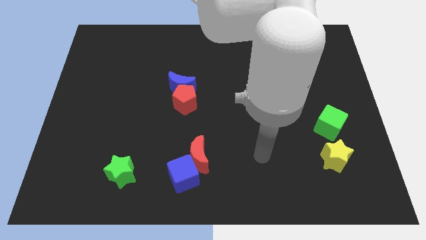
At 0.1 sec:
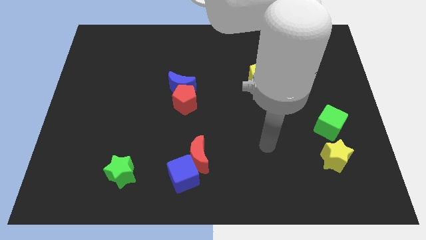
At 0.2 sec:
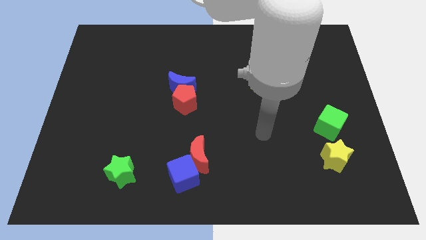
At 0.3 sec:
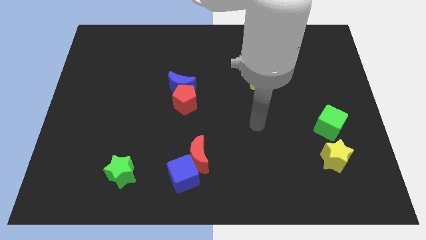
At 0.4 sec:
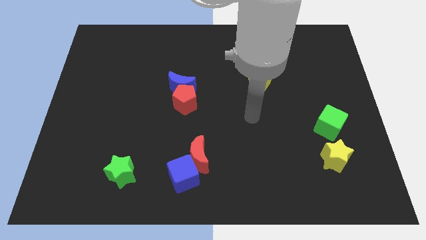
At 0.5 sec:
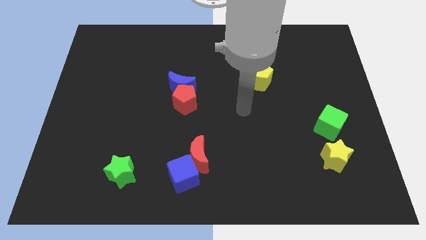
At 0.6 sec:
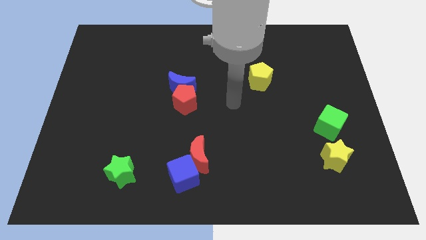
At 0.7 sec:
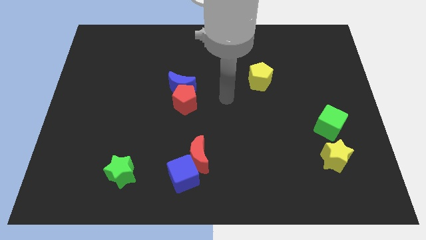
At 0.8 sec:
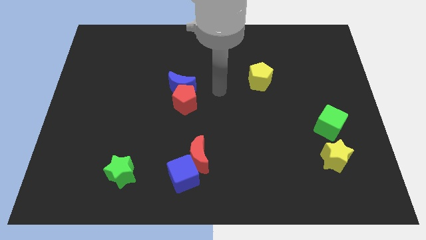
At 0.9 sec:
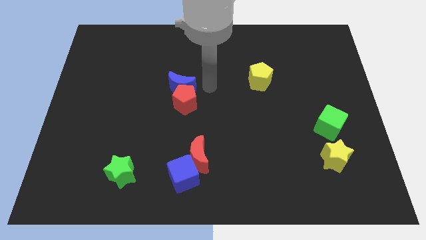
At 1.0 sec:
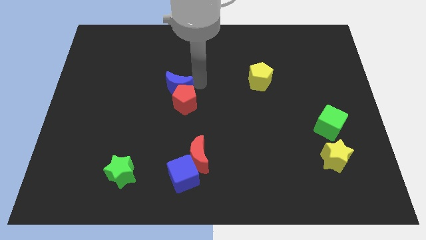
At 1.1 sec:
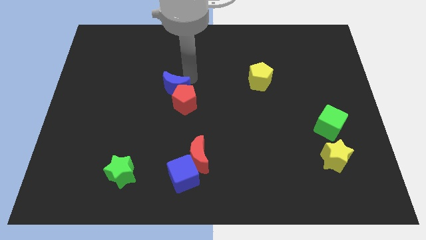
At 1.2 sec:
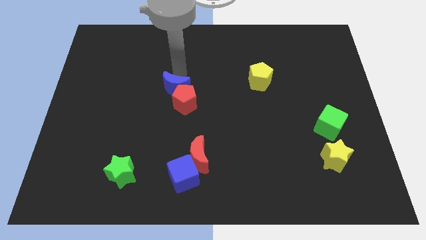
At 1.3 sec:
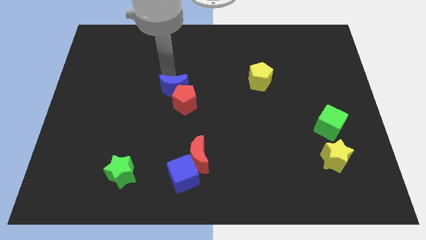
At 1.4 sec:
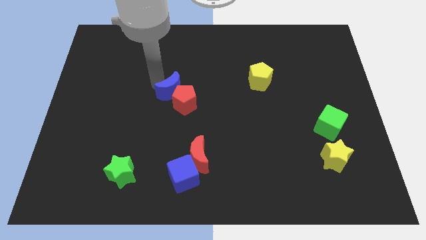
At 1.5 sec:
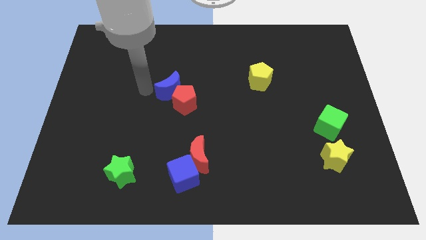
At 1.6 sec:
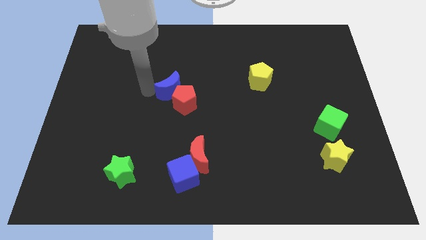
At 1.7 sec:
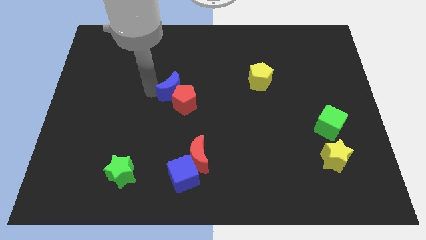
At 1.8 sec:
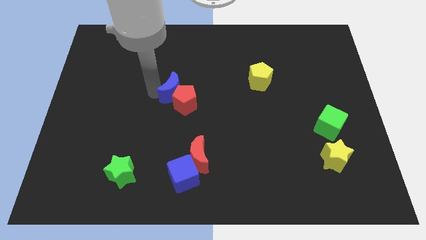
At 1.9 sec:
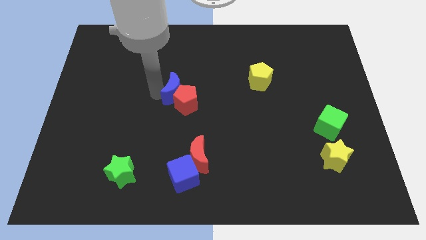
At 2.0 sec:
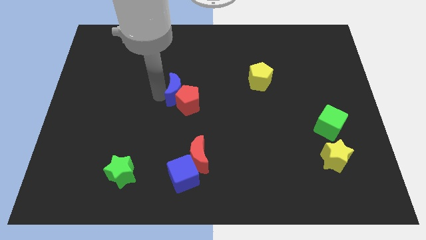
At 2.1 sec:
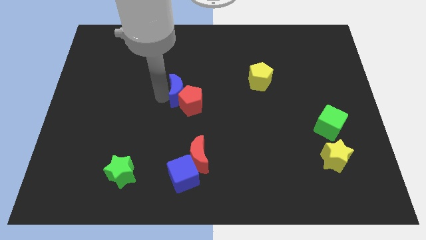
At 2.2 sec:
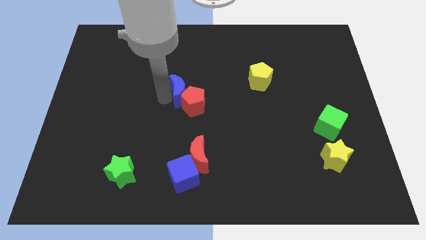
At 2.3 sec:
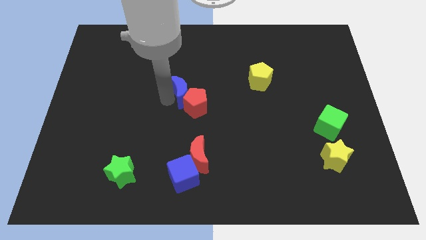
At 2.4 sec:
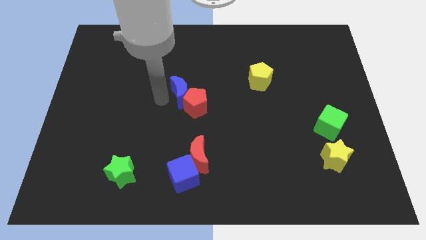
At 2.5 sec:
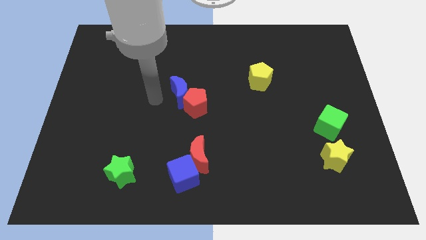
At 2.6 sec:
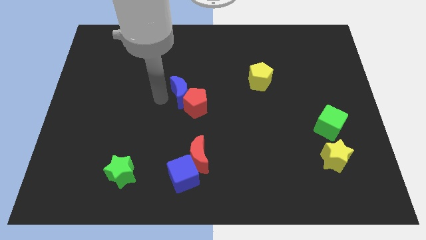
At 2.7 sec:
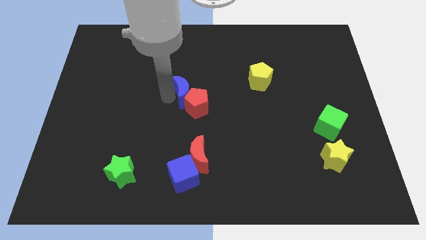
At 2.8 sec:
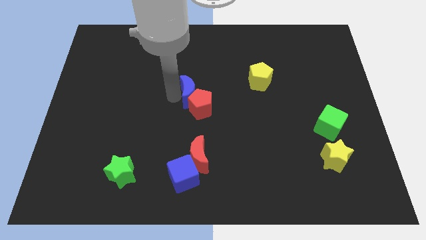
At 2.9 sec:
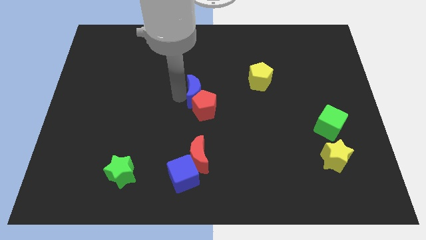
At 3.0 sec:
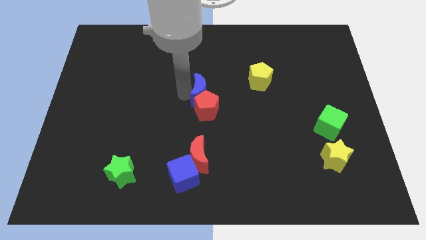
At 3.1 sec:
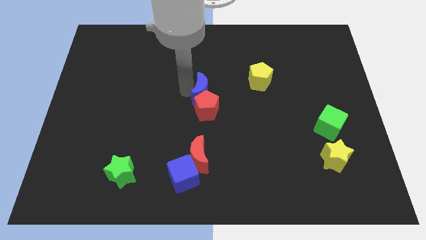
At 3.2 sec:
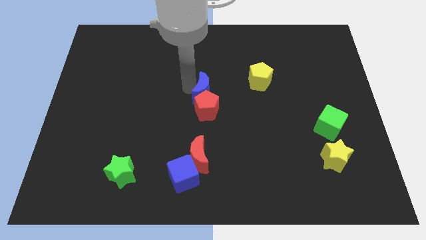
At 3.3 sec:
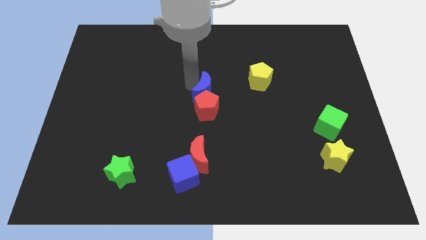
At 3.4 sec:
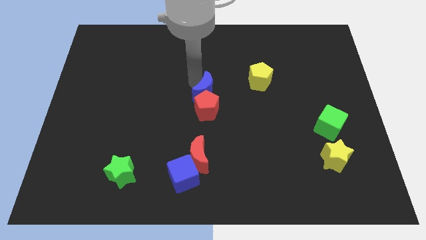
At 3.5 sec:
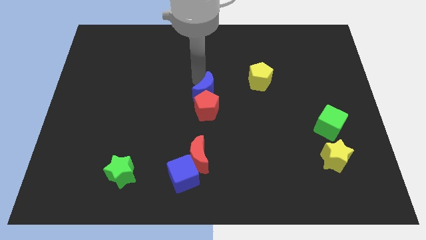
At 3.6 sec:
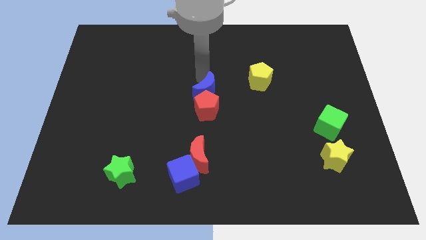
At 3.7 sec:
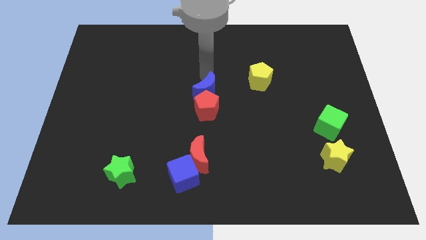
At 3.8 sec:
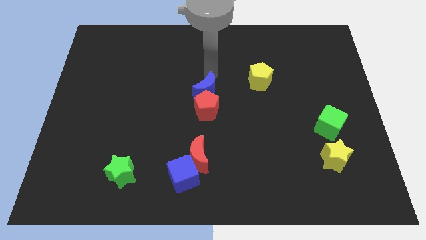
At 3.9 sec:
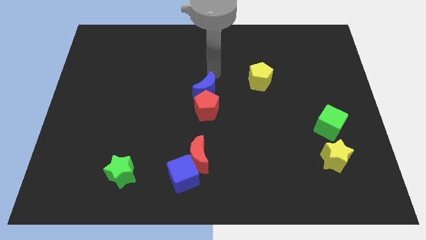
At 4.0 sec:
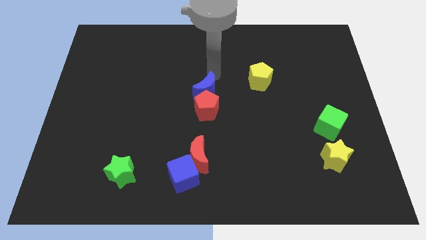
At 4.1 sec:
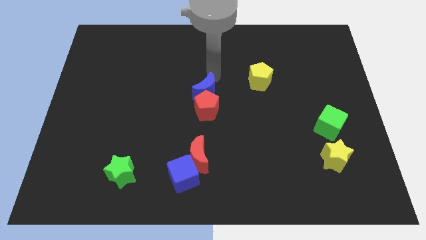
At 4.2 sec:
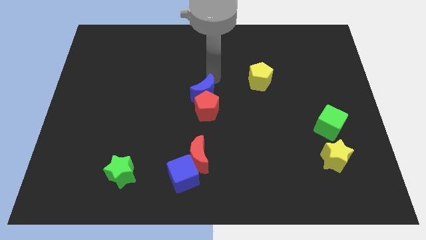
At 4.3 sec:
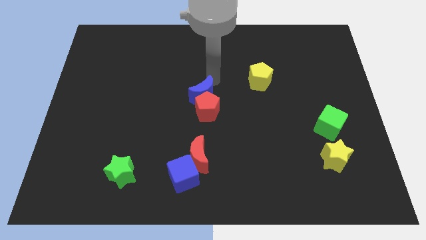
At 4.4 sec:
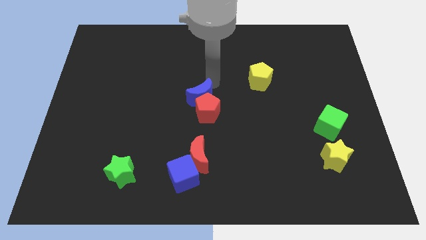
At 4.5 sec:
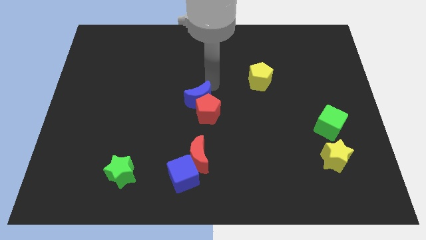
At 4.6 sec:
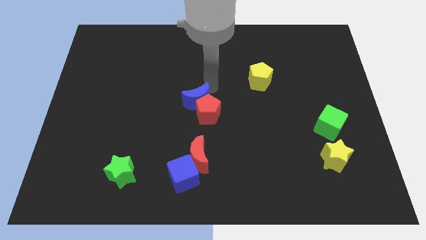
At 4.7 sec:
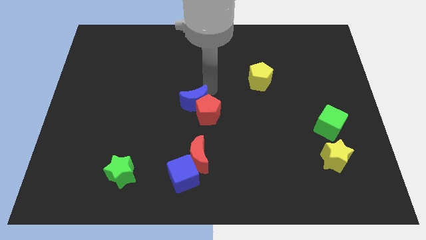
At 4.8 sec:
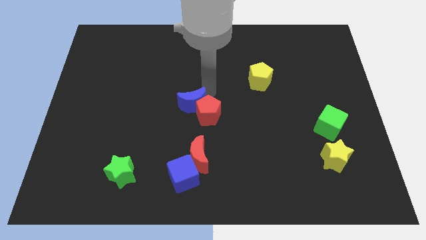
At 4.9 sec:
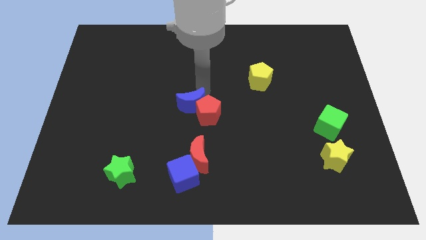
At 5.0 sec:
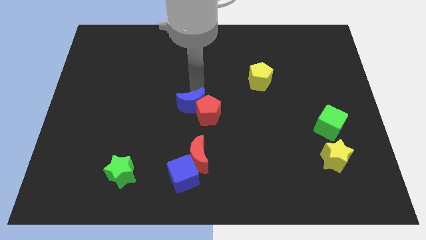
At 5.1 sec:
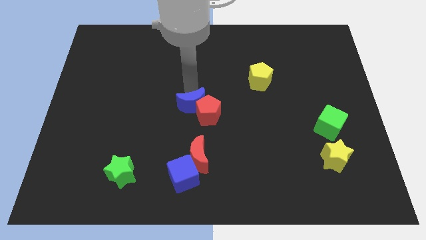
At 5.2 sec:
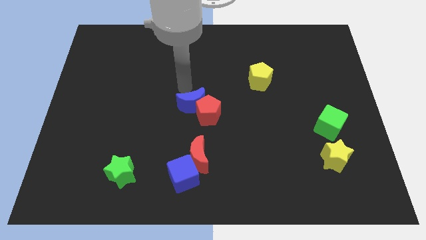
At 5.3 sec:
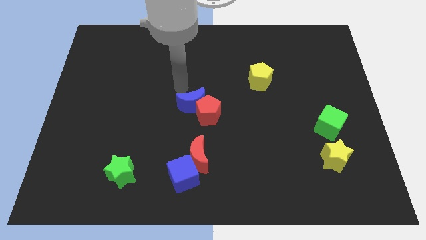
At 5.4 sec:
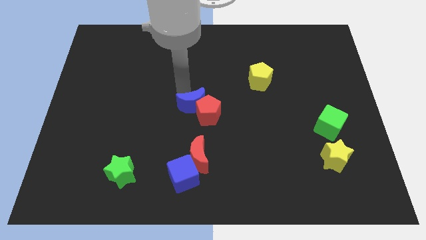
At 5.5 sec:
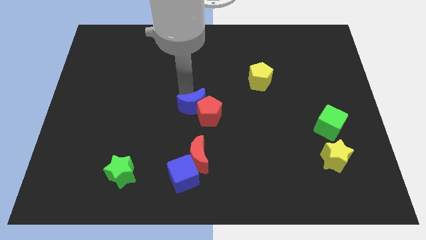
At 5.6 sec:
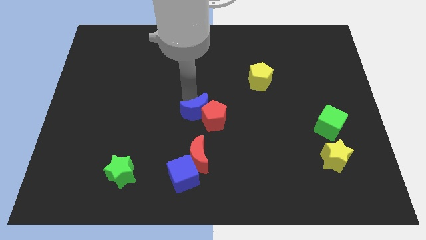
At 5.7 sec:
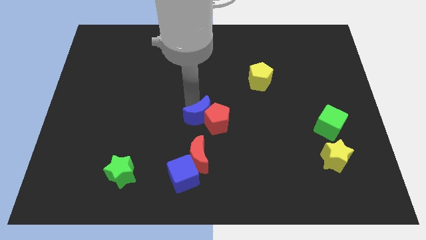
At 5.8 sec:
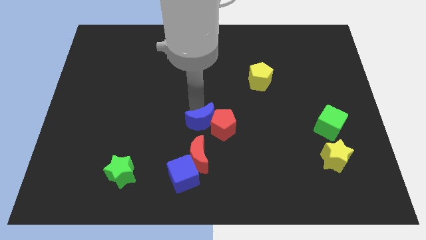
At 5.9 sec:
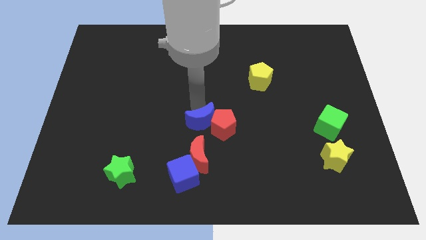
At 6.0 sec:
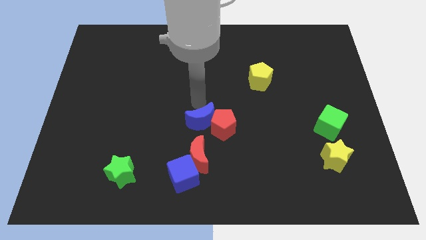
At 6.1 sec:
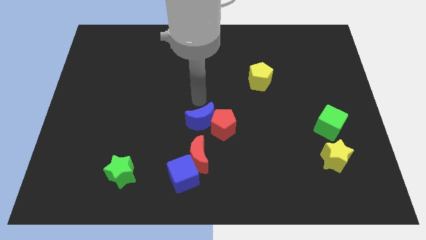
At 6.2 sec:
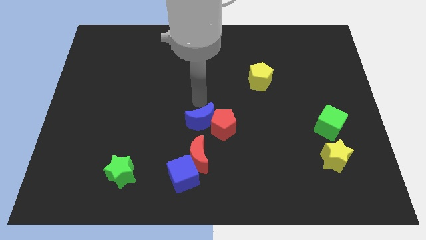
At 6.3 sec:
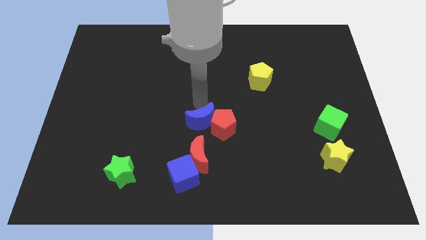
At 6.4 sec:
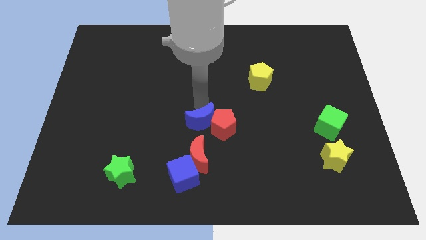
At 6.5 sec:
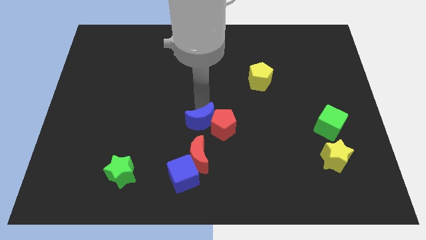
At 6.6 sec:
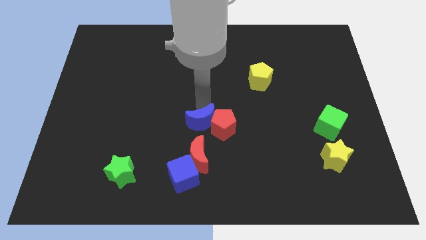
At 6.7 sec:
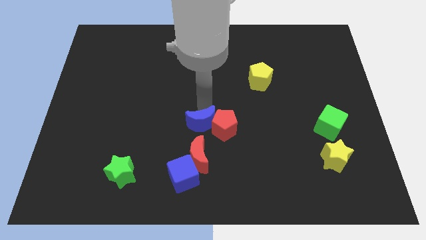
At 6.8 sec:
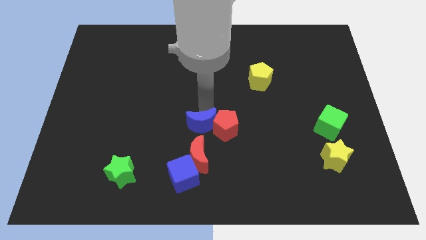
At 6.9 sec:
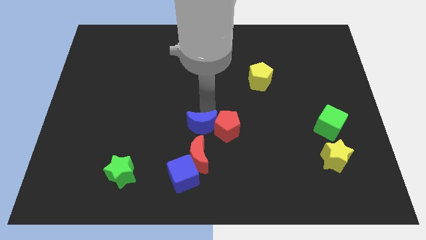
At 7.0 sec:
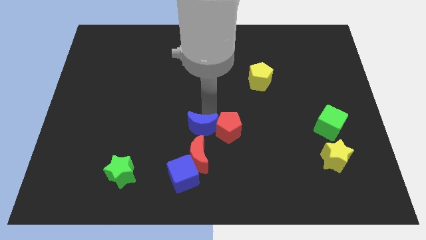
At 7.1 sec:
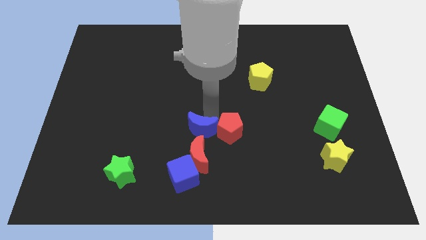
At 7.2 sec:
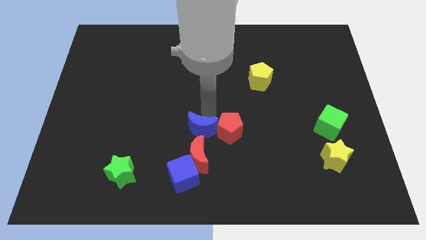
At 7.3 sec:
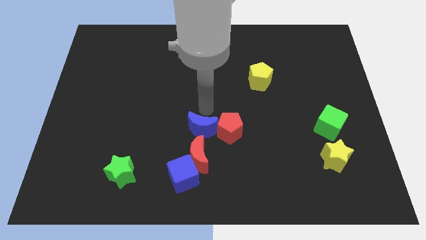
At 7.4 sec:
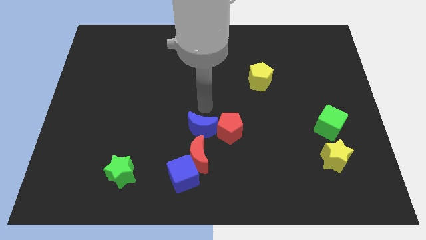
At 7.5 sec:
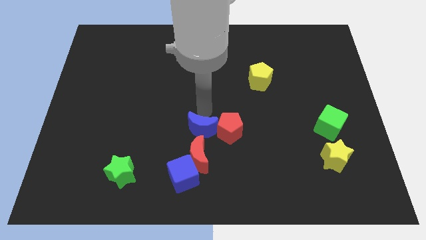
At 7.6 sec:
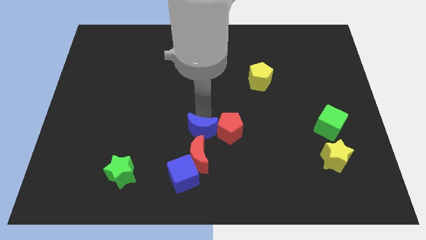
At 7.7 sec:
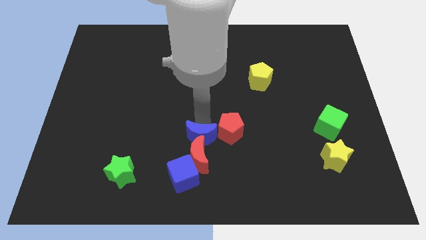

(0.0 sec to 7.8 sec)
push the blue moon to the red moon

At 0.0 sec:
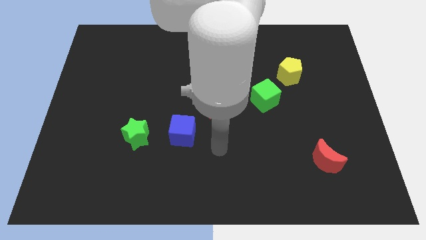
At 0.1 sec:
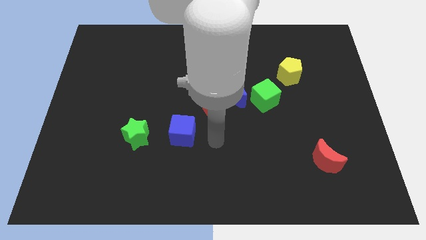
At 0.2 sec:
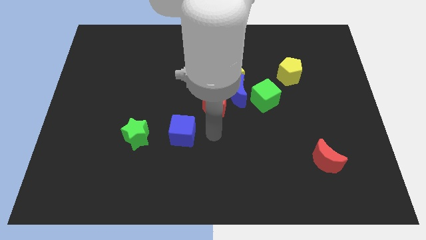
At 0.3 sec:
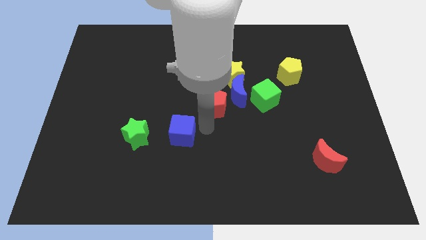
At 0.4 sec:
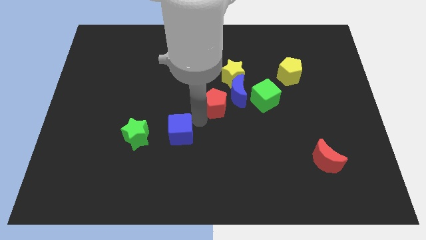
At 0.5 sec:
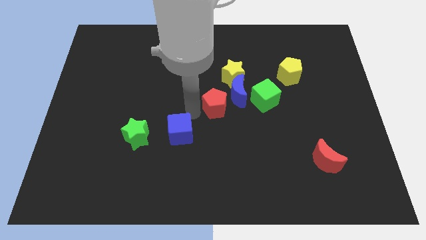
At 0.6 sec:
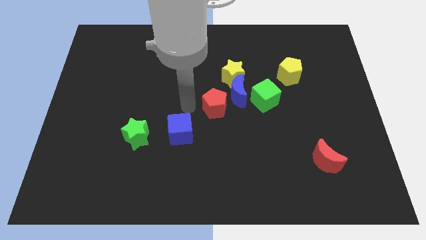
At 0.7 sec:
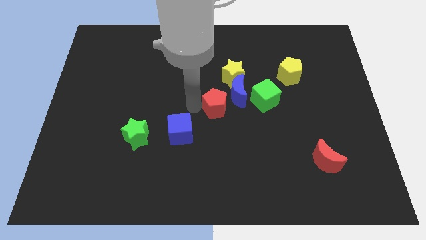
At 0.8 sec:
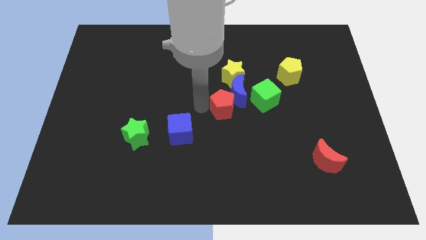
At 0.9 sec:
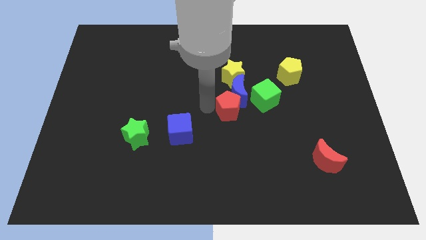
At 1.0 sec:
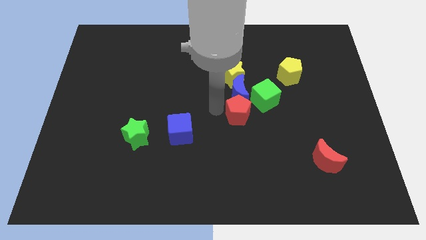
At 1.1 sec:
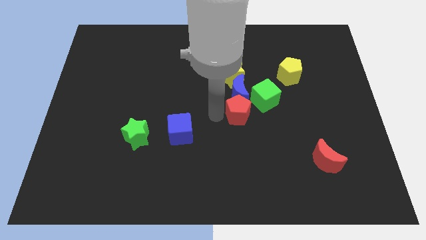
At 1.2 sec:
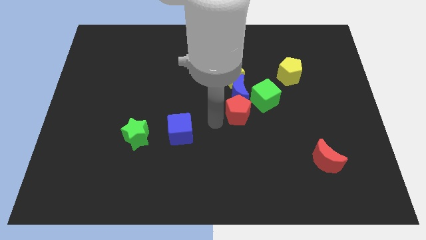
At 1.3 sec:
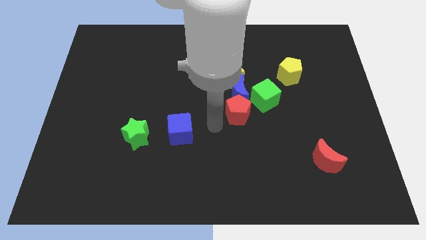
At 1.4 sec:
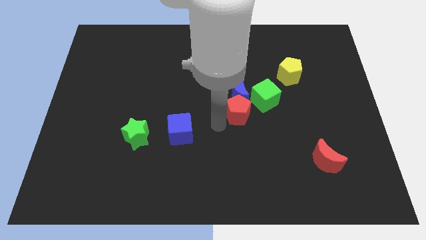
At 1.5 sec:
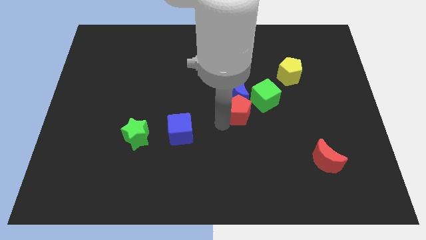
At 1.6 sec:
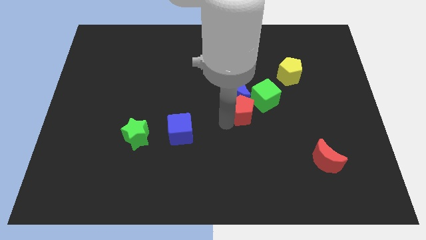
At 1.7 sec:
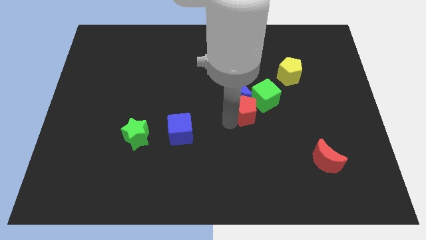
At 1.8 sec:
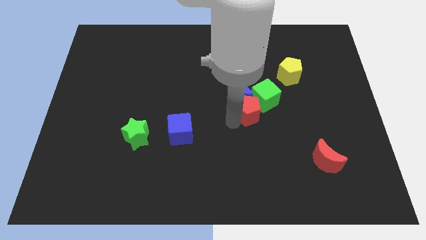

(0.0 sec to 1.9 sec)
slide the red pentagon close to the green cube
